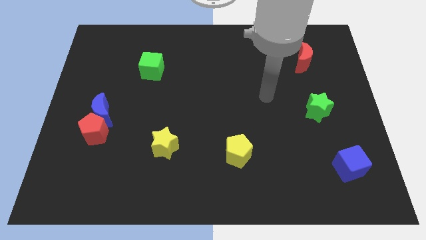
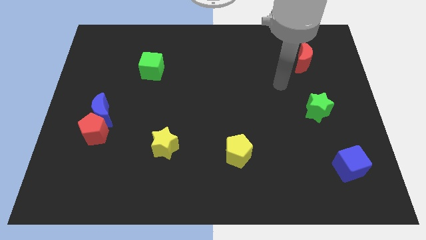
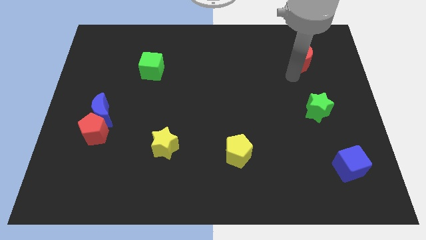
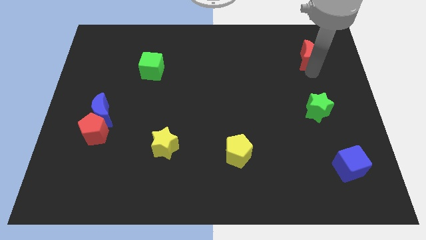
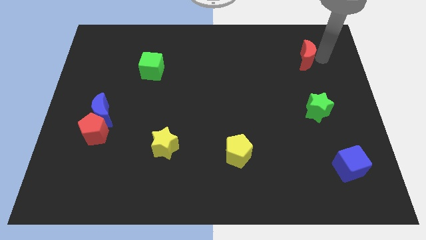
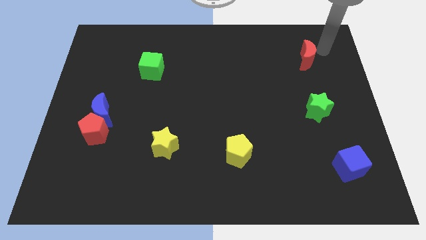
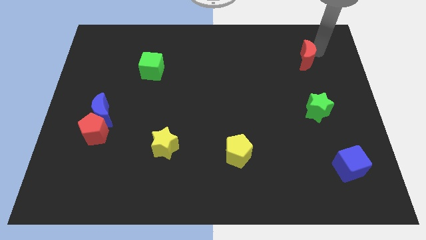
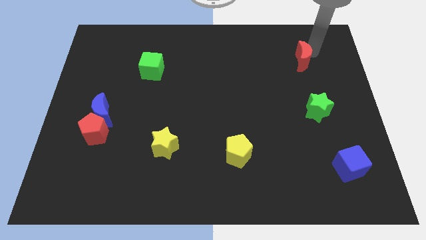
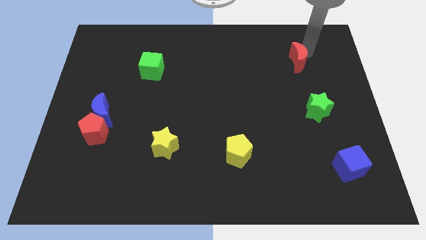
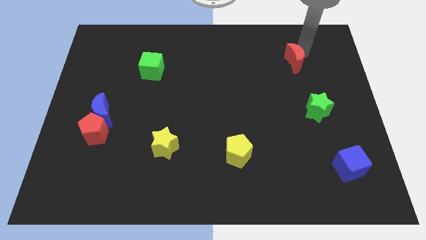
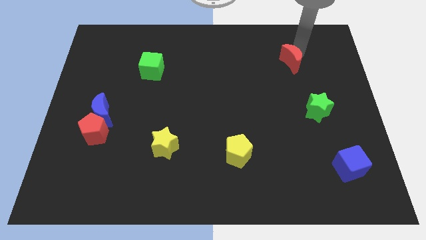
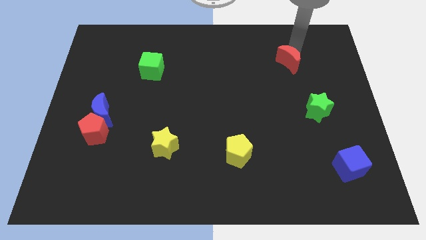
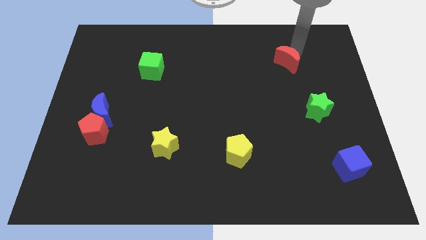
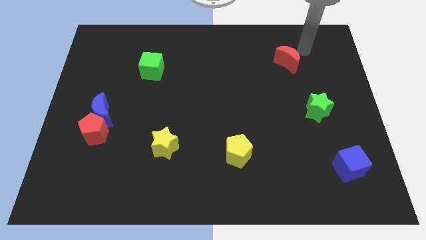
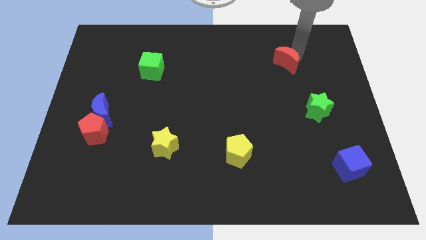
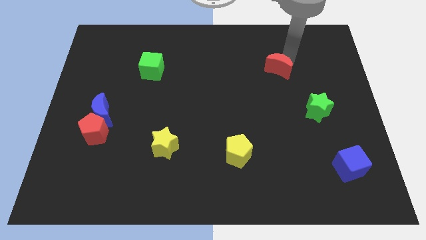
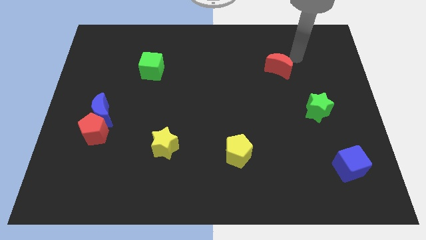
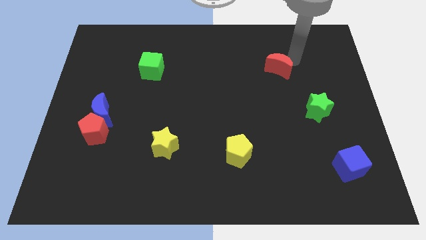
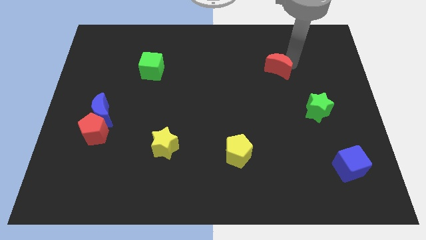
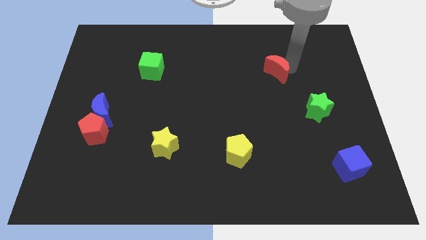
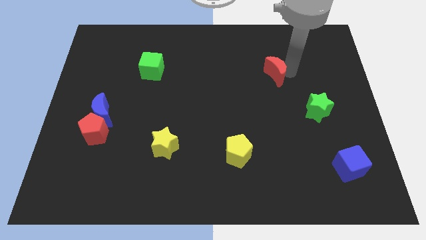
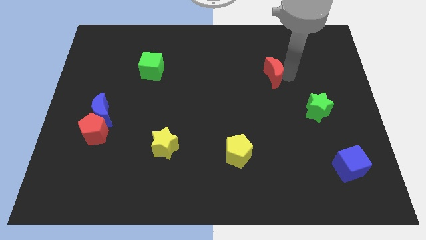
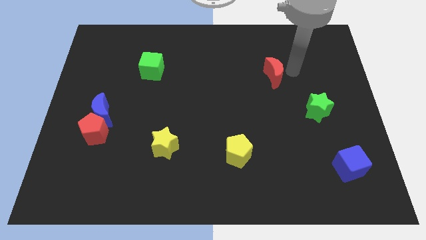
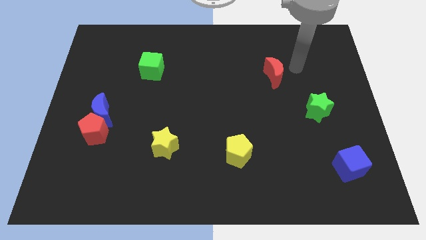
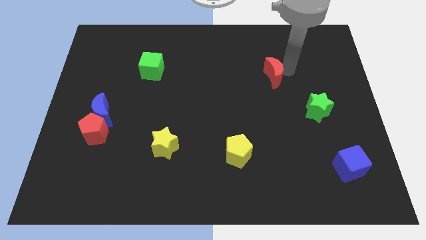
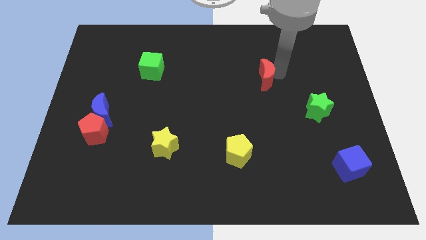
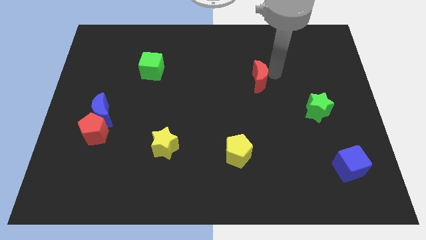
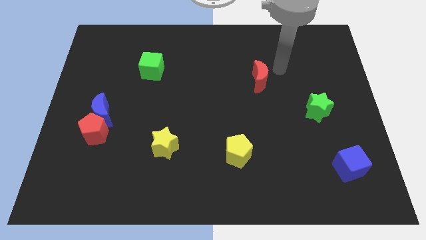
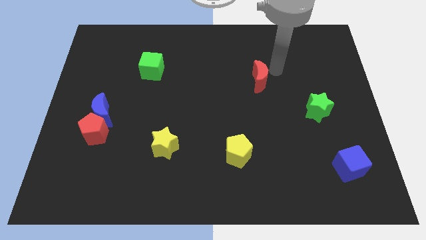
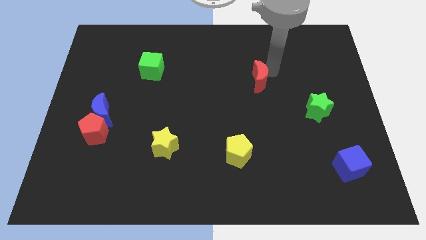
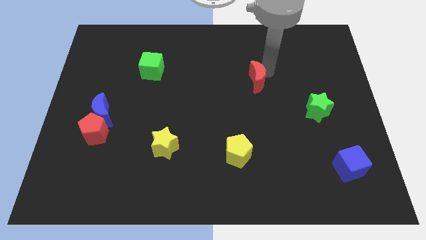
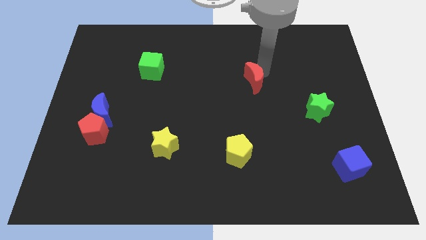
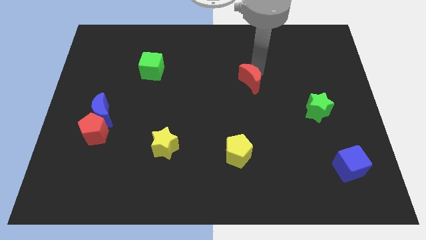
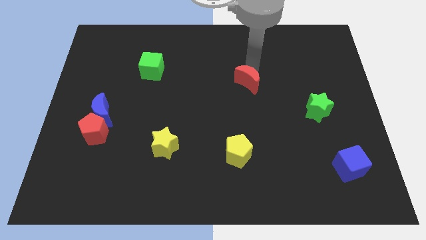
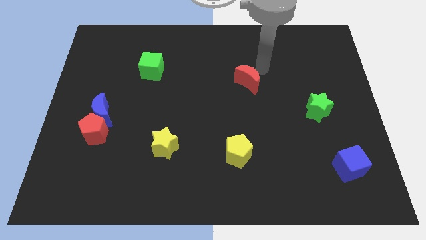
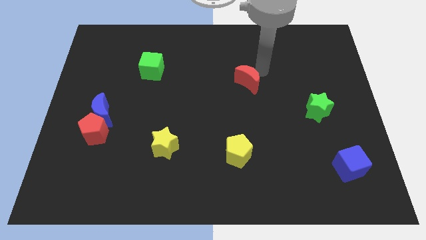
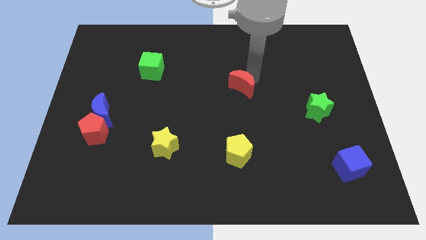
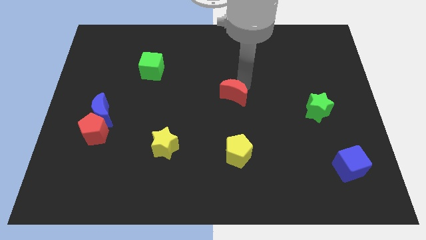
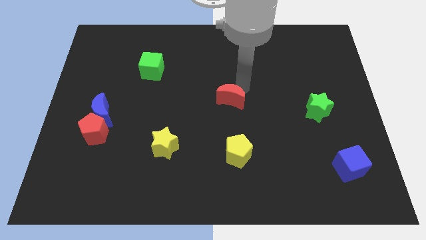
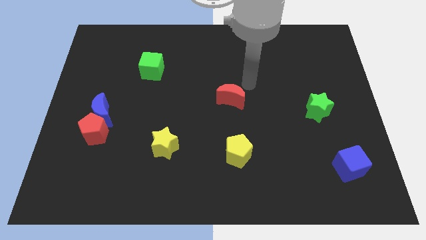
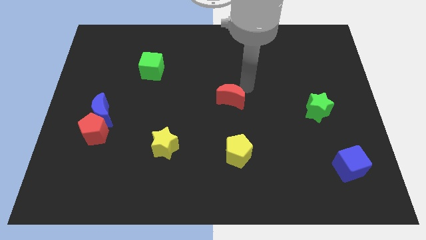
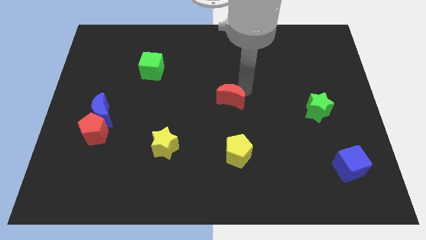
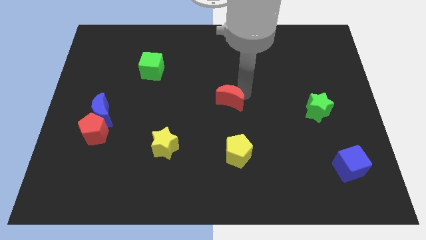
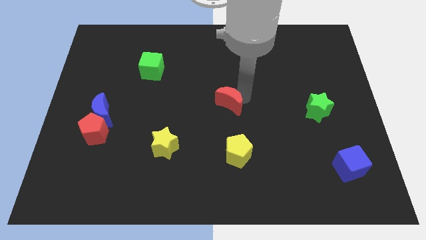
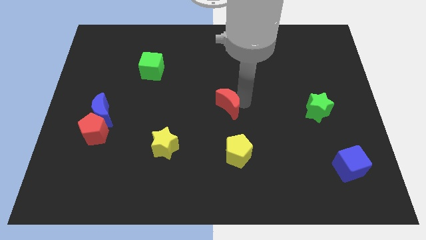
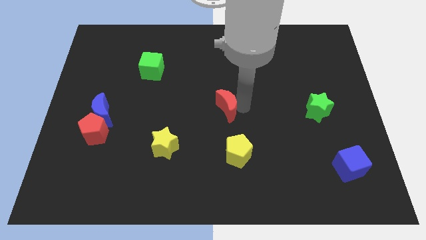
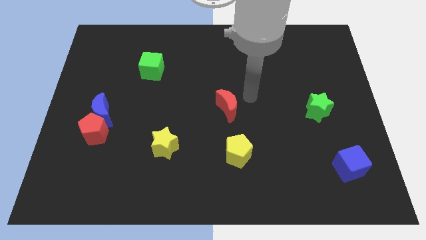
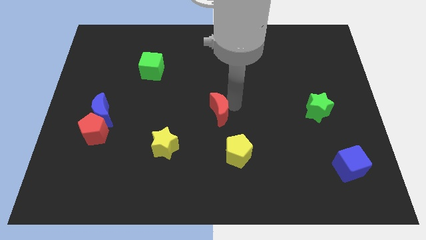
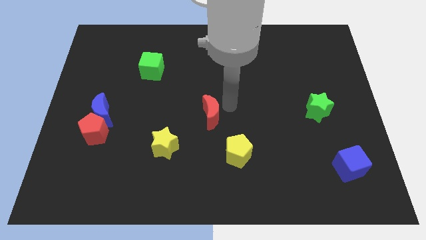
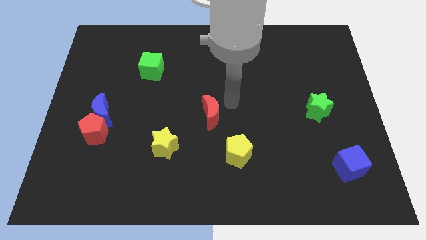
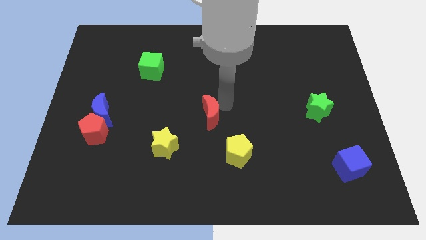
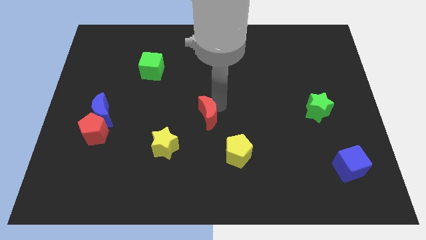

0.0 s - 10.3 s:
move the red moon diagonally up and to the right of the yellow star

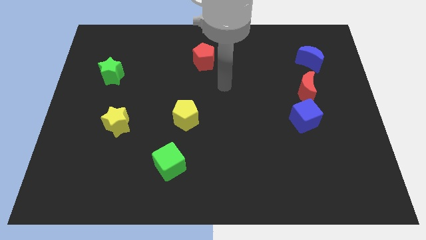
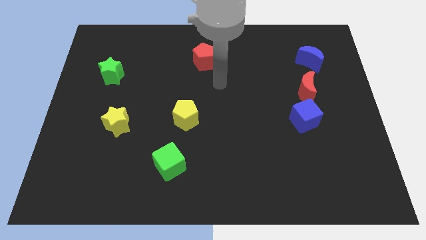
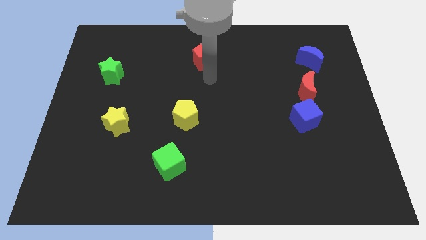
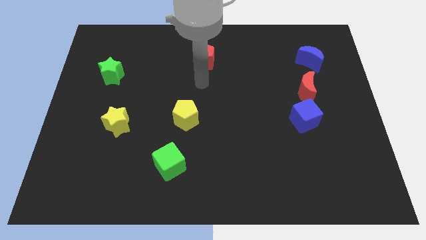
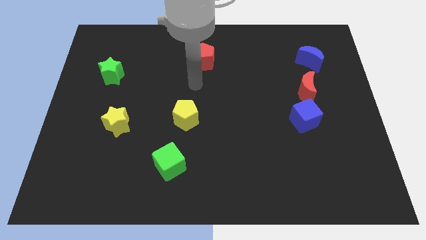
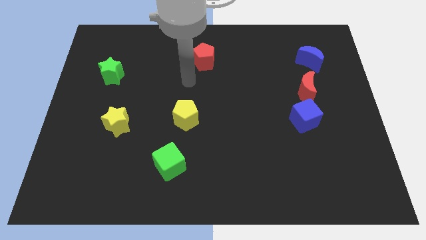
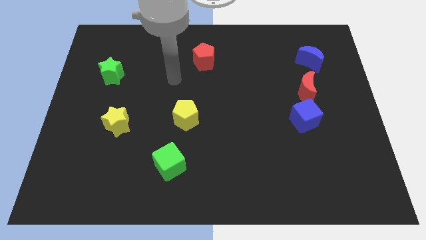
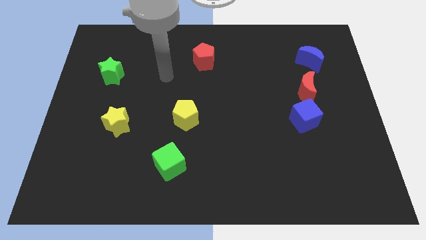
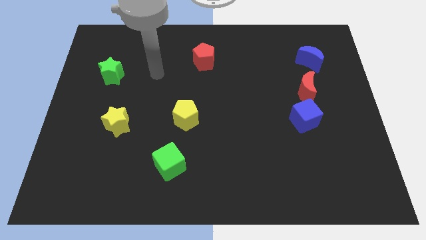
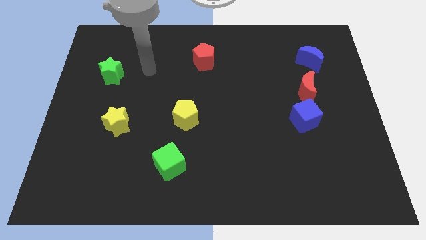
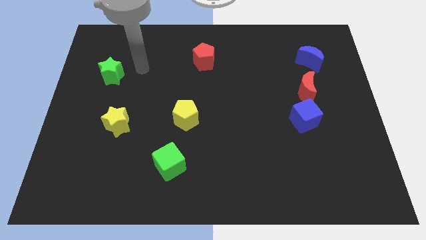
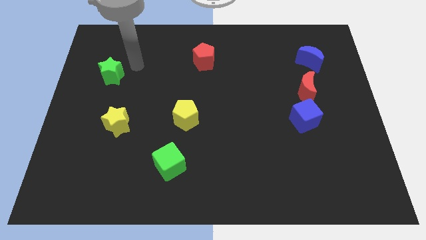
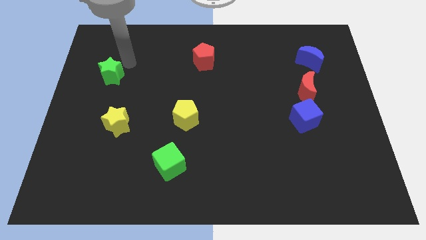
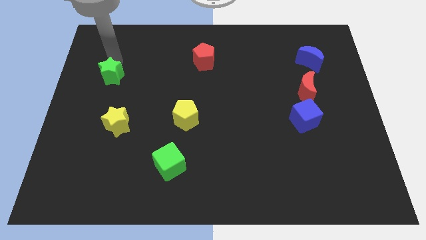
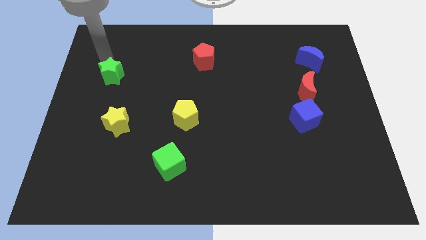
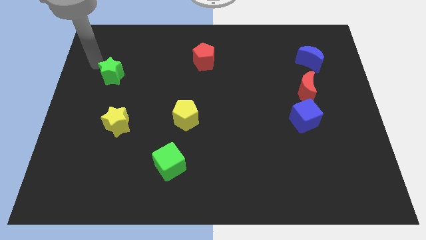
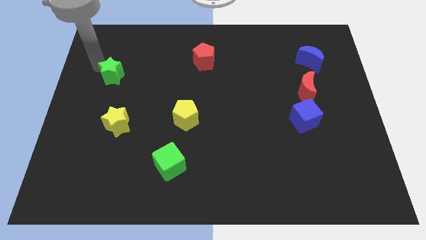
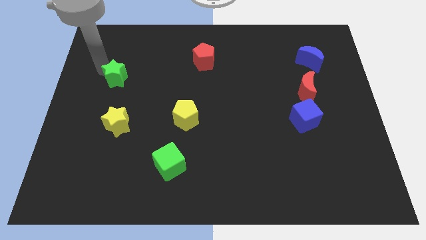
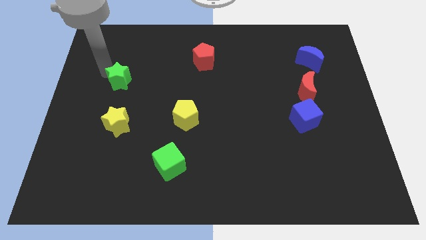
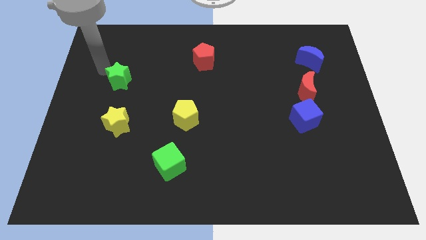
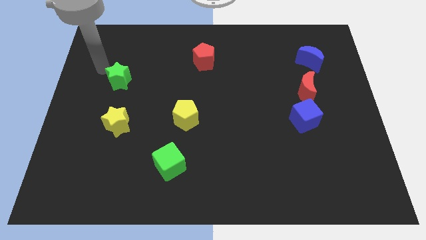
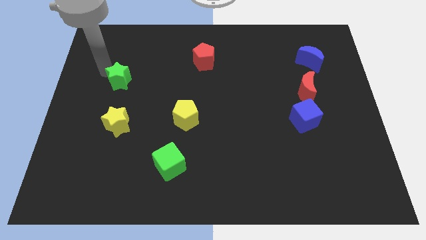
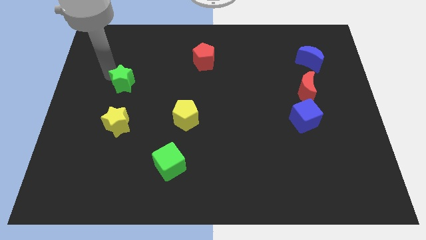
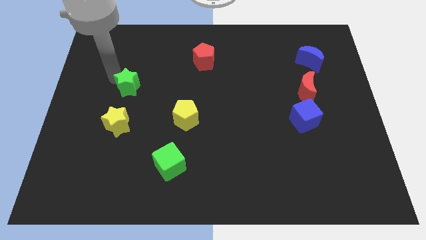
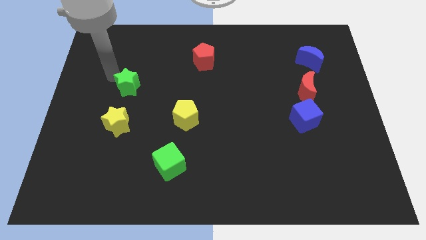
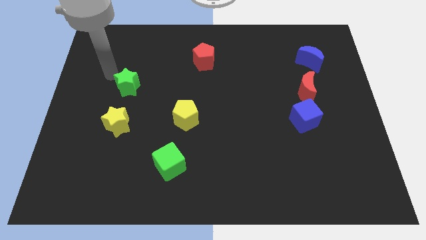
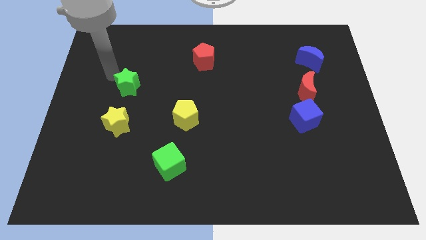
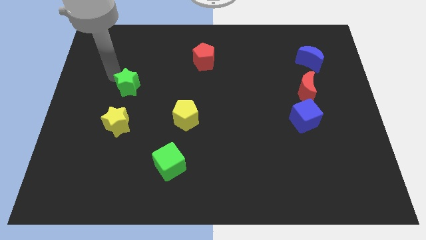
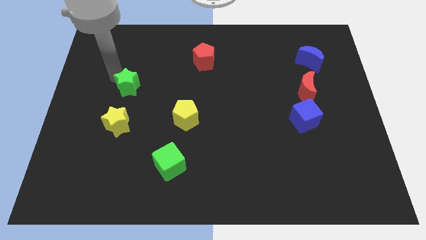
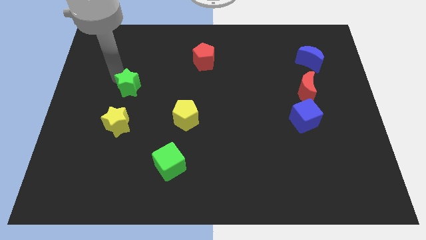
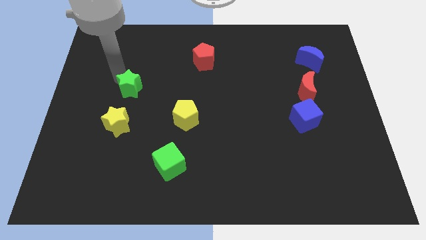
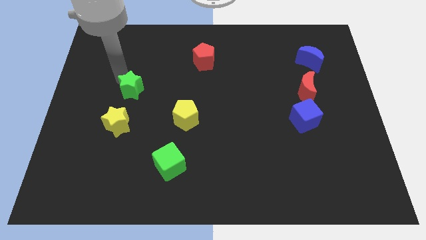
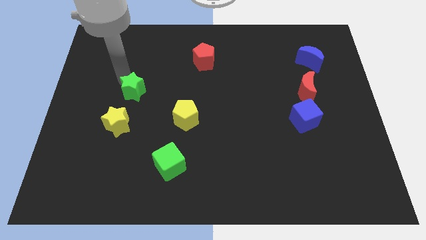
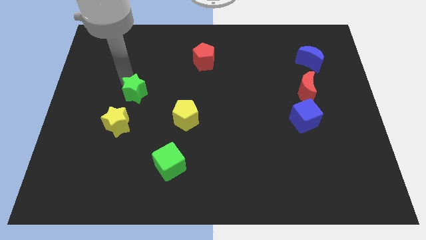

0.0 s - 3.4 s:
slide the green star to the top right side of the yellow star
